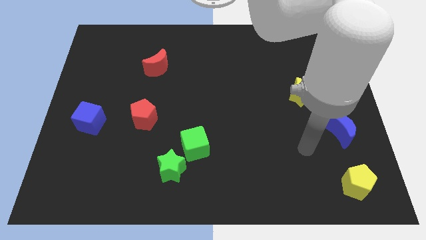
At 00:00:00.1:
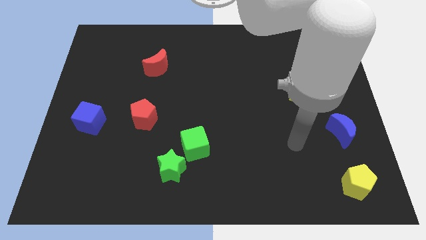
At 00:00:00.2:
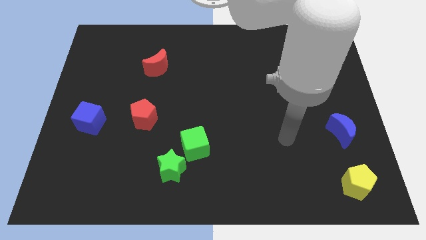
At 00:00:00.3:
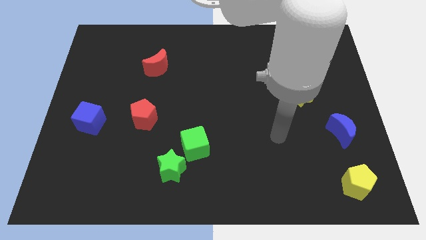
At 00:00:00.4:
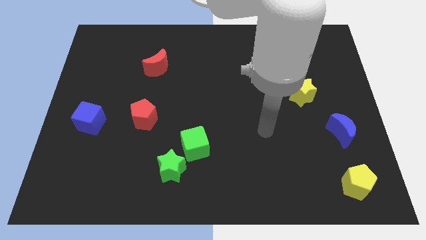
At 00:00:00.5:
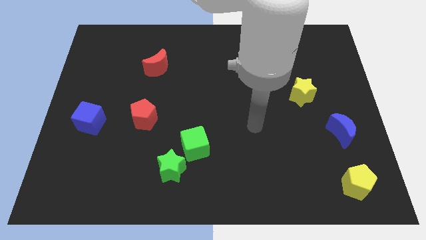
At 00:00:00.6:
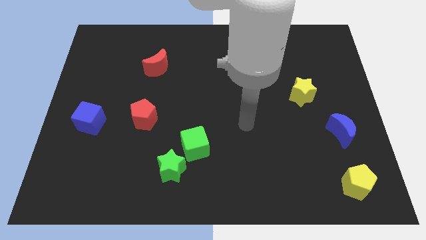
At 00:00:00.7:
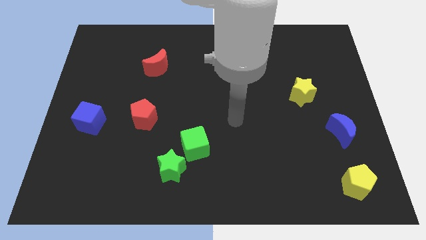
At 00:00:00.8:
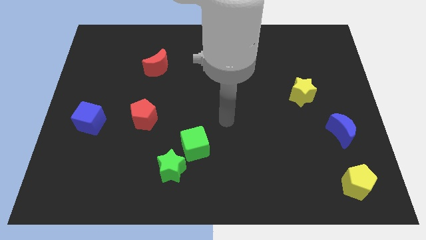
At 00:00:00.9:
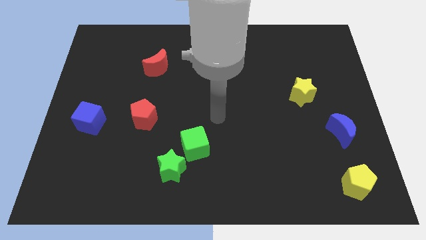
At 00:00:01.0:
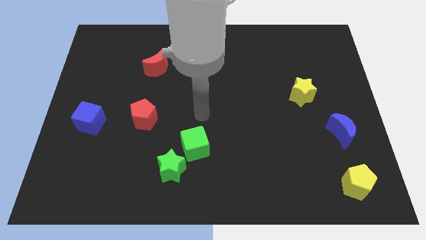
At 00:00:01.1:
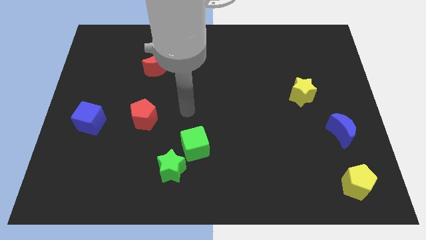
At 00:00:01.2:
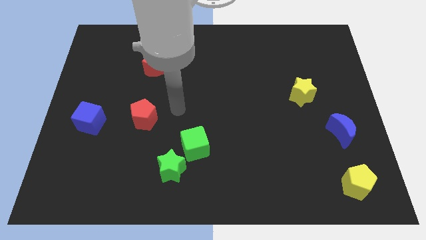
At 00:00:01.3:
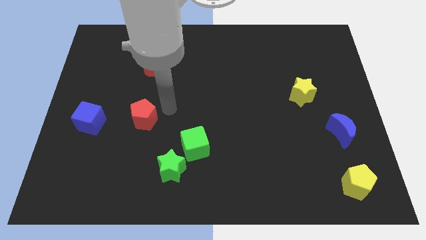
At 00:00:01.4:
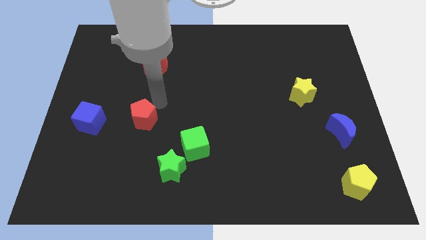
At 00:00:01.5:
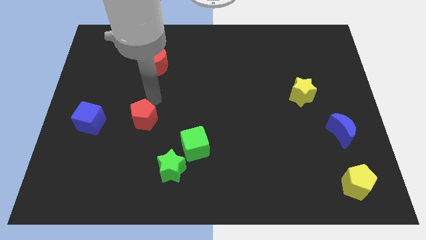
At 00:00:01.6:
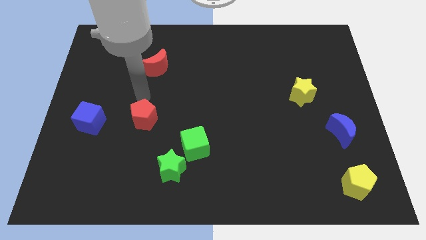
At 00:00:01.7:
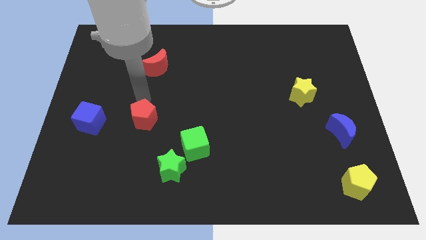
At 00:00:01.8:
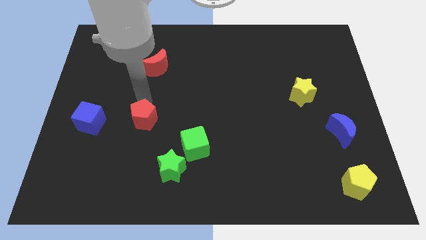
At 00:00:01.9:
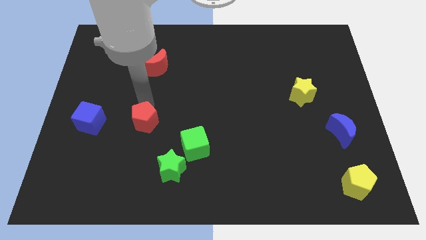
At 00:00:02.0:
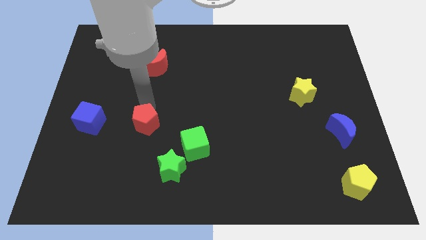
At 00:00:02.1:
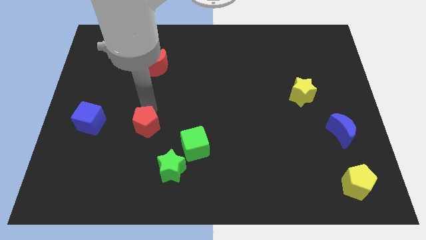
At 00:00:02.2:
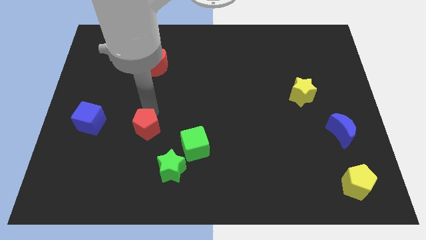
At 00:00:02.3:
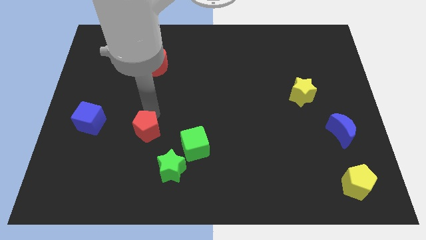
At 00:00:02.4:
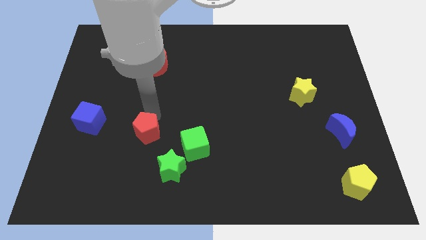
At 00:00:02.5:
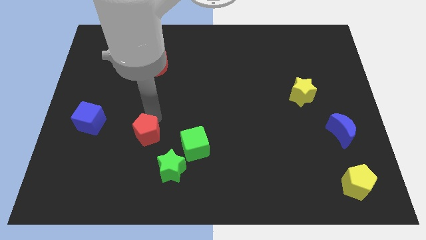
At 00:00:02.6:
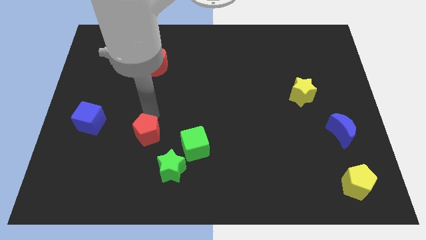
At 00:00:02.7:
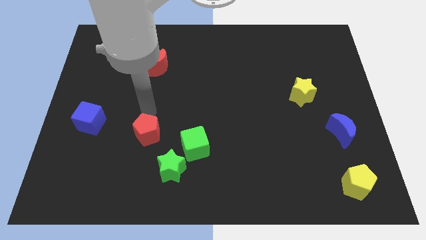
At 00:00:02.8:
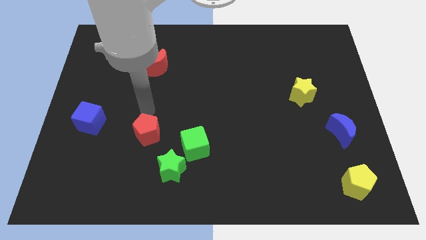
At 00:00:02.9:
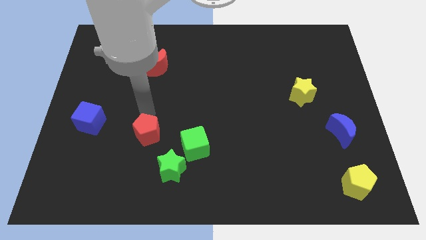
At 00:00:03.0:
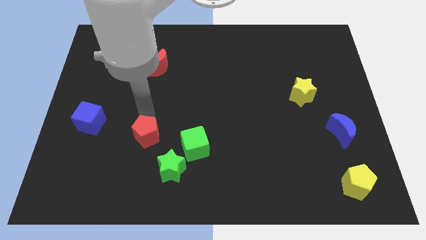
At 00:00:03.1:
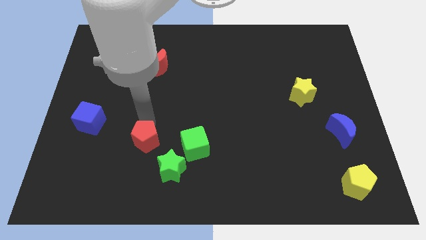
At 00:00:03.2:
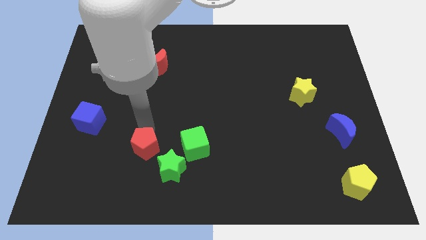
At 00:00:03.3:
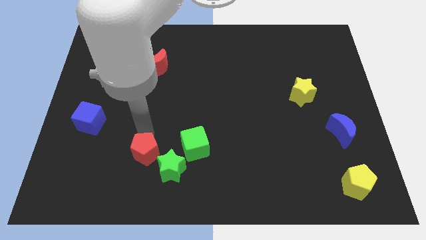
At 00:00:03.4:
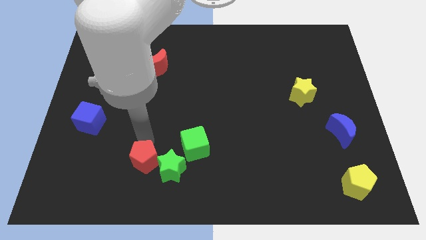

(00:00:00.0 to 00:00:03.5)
move the red pentagon slightly down and to the right diagonally

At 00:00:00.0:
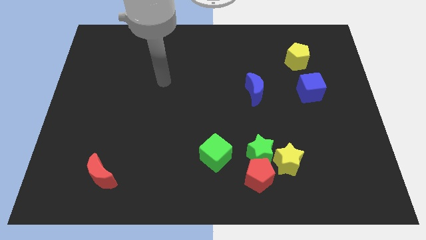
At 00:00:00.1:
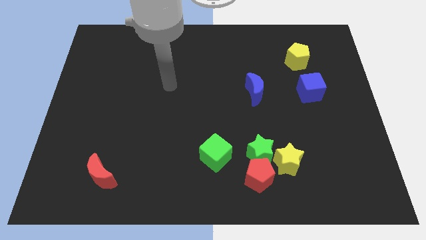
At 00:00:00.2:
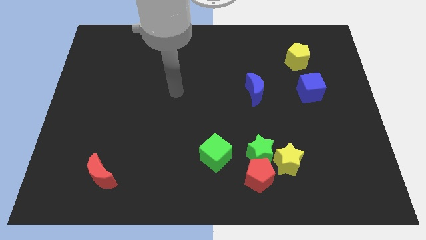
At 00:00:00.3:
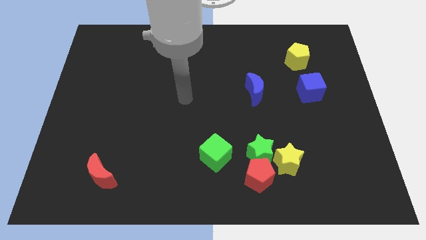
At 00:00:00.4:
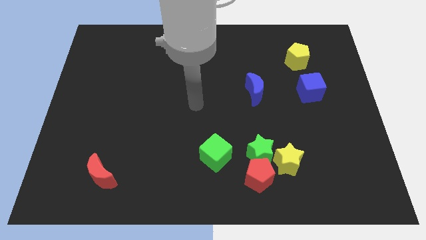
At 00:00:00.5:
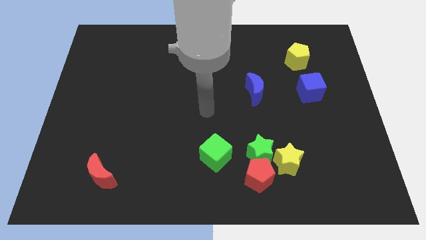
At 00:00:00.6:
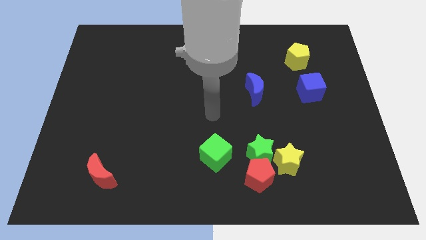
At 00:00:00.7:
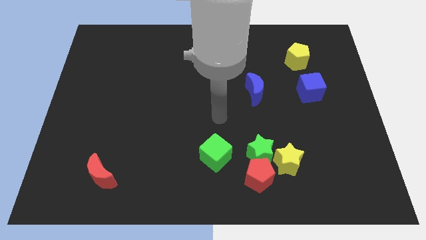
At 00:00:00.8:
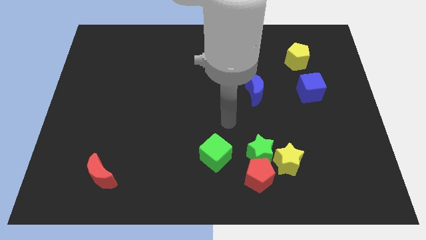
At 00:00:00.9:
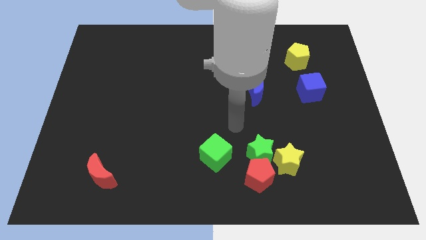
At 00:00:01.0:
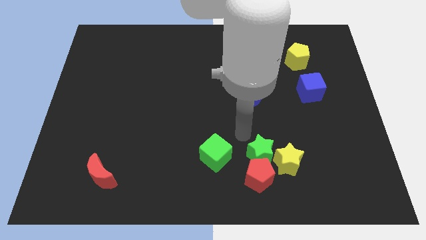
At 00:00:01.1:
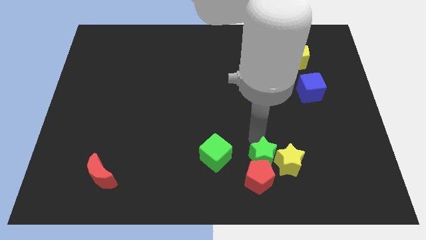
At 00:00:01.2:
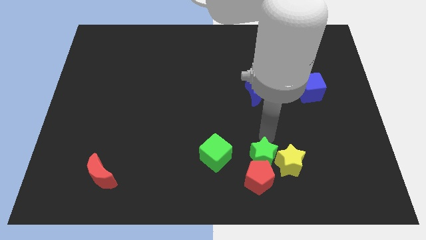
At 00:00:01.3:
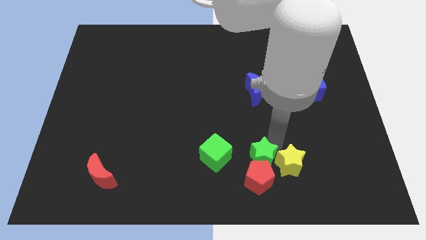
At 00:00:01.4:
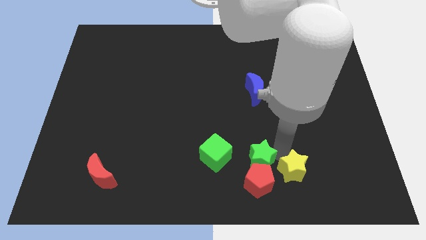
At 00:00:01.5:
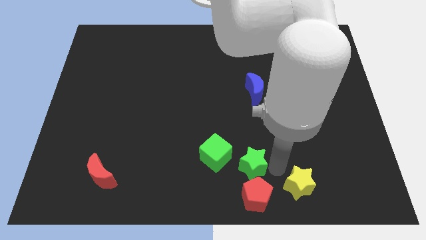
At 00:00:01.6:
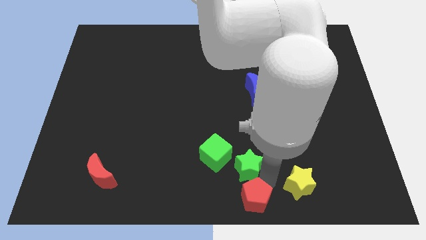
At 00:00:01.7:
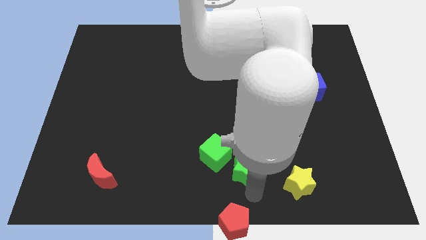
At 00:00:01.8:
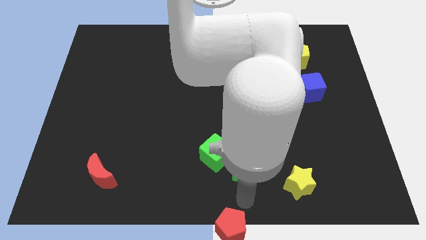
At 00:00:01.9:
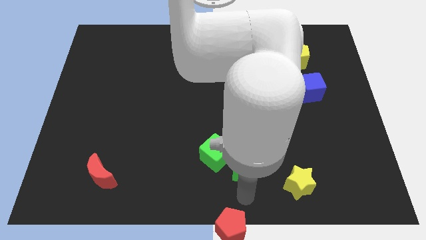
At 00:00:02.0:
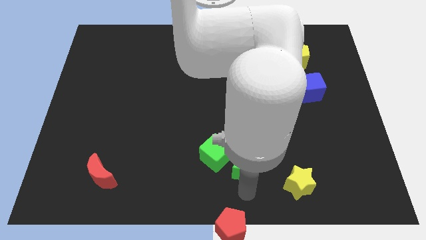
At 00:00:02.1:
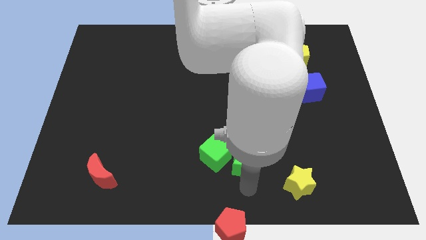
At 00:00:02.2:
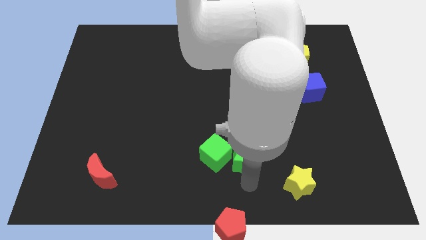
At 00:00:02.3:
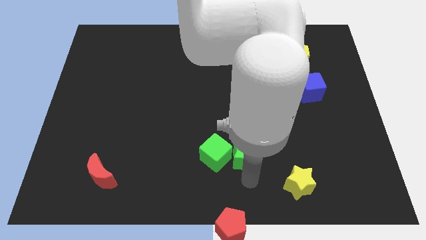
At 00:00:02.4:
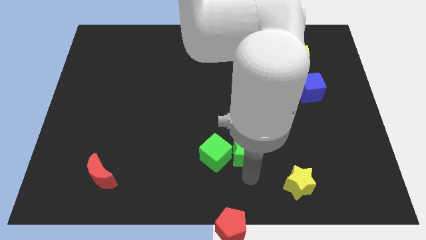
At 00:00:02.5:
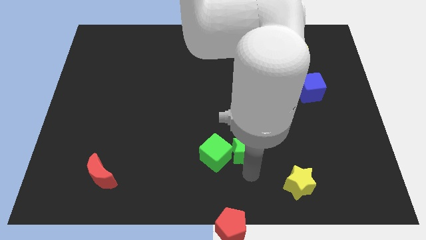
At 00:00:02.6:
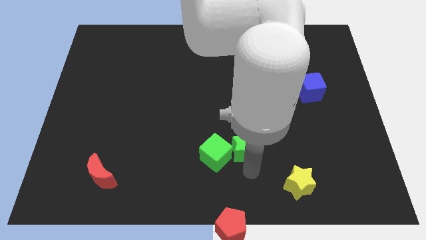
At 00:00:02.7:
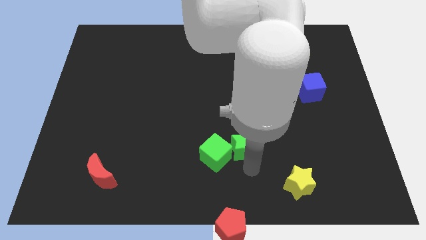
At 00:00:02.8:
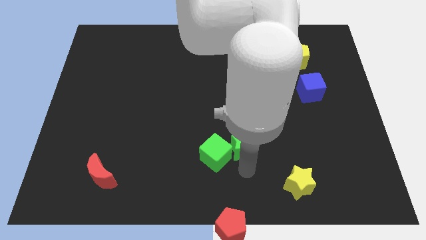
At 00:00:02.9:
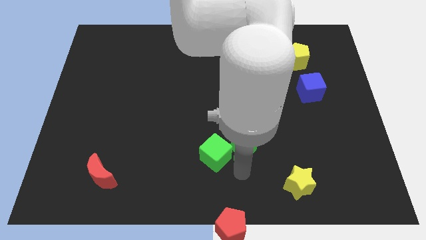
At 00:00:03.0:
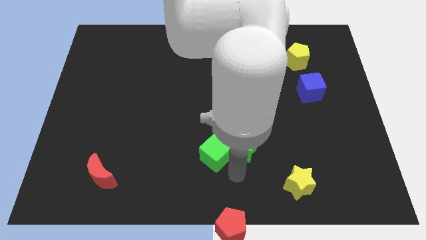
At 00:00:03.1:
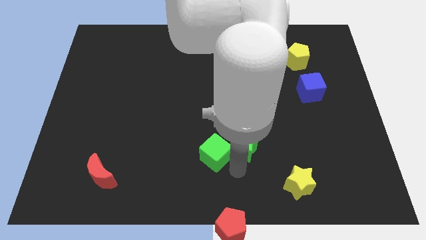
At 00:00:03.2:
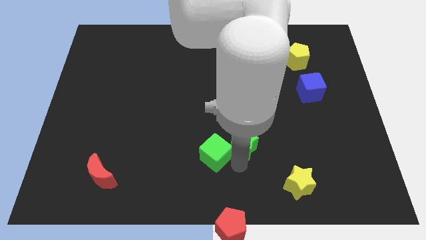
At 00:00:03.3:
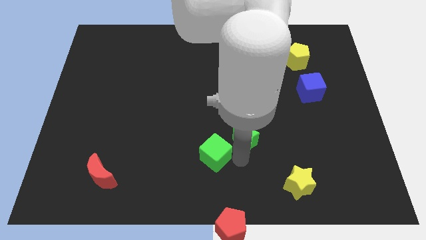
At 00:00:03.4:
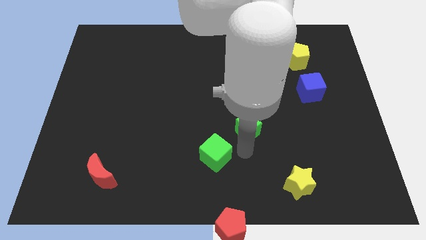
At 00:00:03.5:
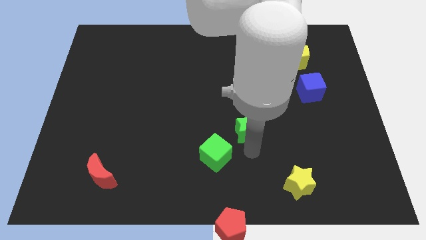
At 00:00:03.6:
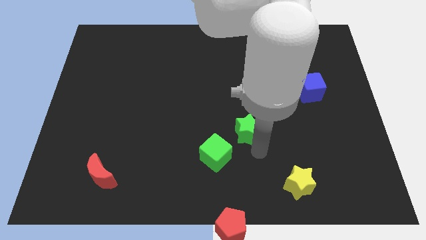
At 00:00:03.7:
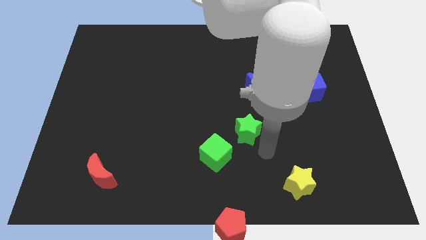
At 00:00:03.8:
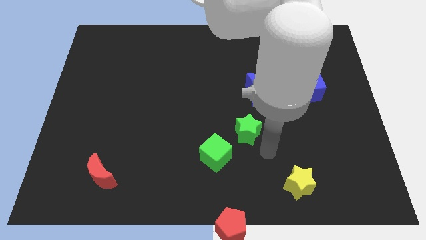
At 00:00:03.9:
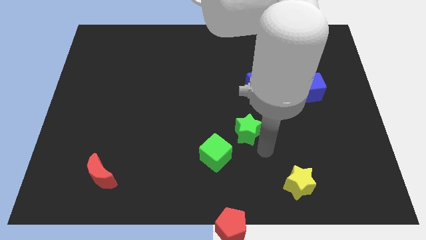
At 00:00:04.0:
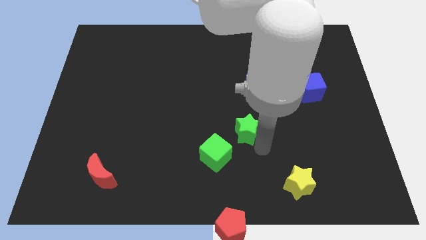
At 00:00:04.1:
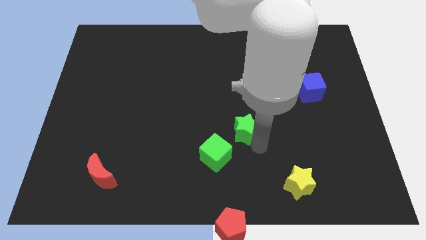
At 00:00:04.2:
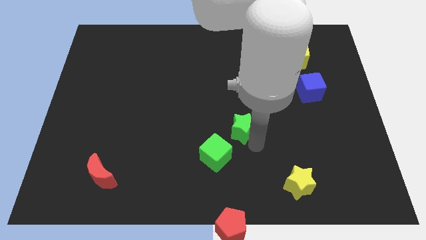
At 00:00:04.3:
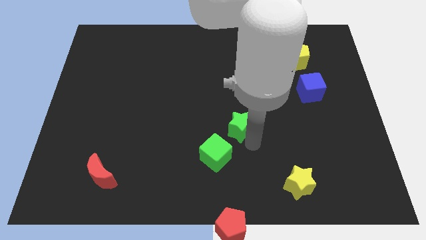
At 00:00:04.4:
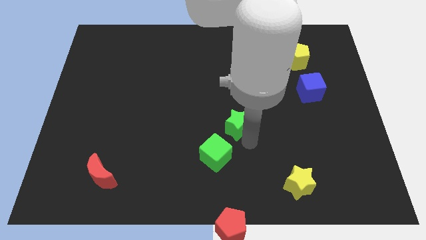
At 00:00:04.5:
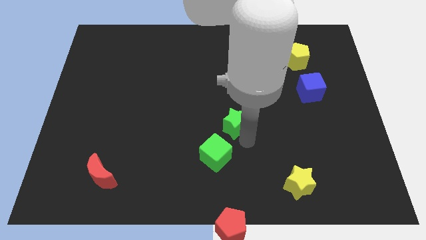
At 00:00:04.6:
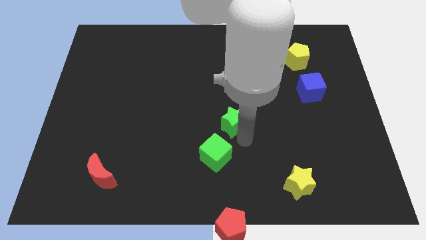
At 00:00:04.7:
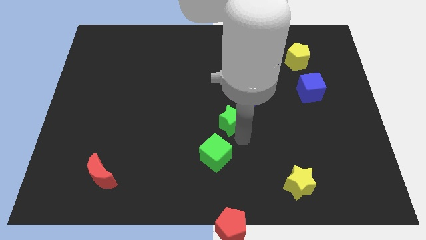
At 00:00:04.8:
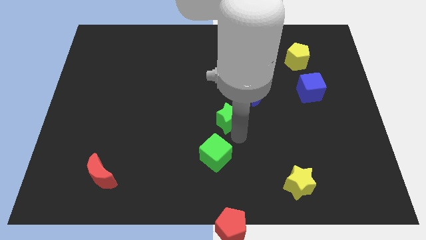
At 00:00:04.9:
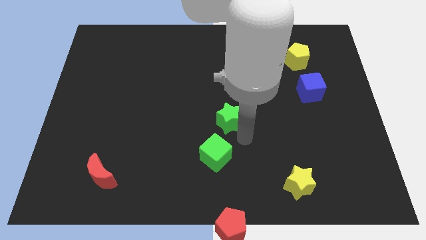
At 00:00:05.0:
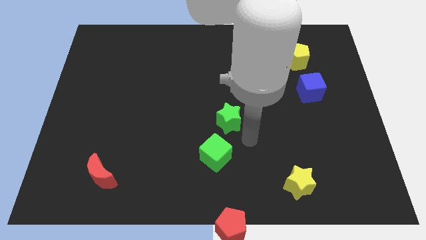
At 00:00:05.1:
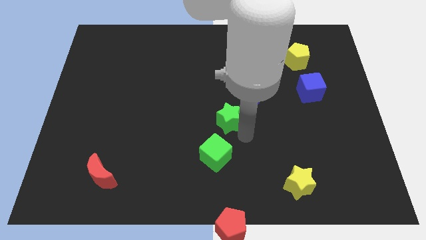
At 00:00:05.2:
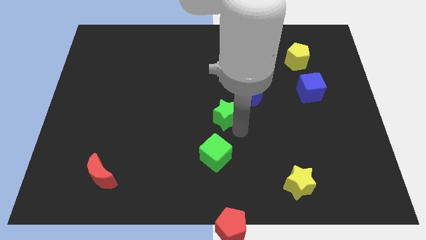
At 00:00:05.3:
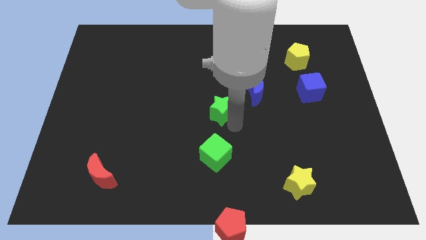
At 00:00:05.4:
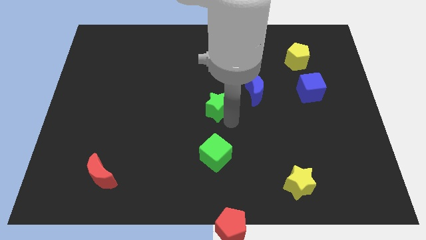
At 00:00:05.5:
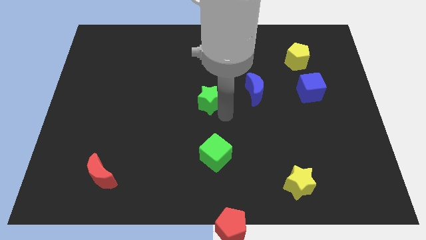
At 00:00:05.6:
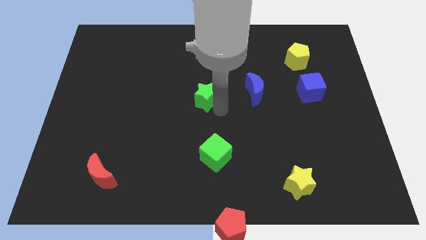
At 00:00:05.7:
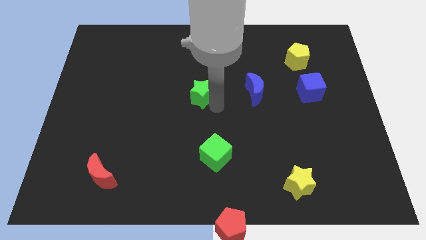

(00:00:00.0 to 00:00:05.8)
slide the green star up and left
